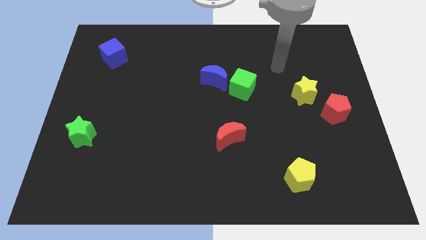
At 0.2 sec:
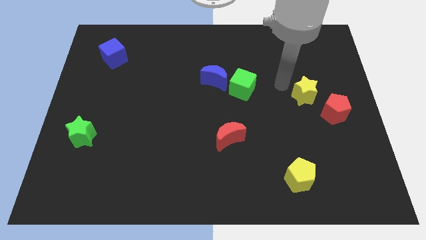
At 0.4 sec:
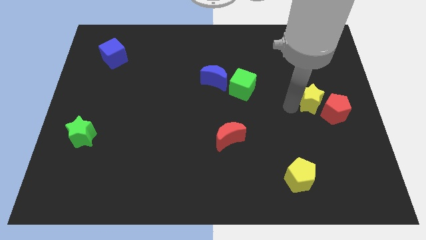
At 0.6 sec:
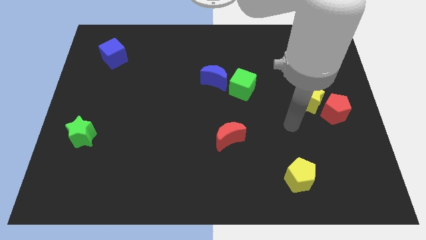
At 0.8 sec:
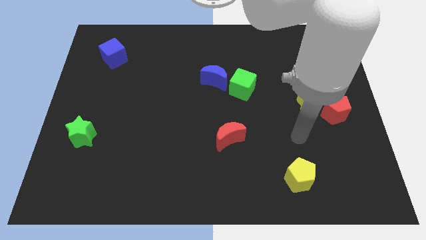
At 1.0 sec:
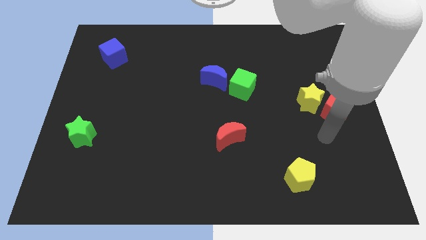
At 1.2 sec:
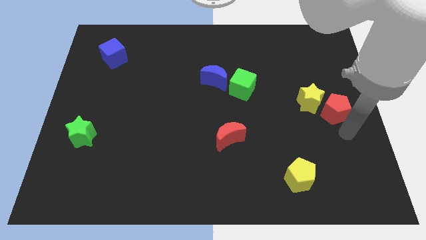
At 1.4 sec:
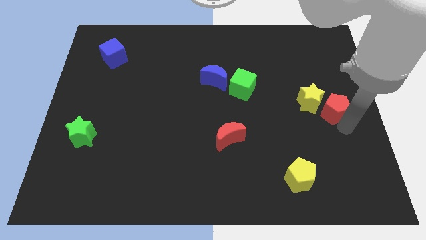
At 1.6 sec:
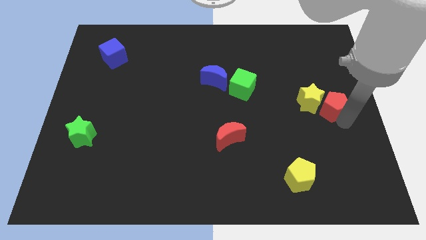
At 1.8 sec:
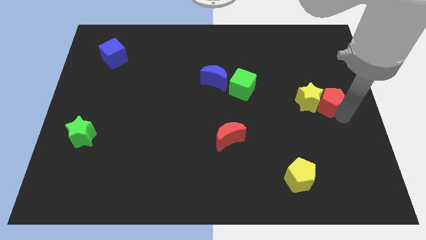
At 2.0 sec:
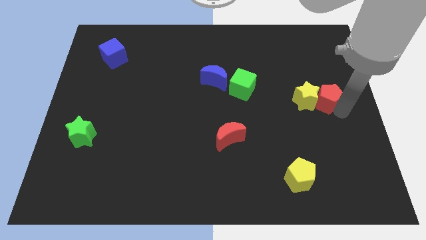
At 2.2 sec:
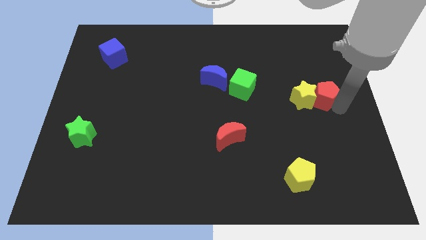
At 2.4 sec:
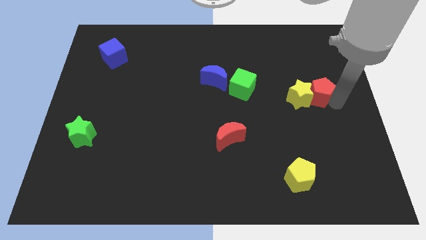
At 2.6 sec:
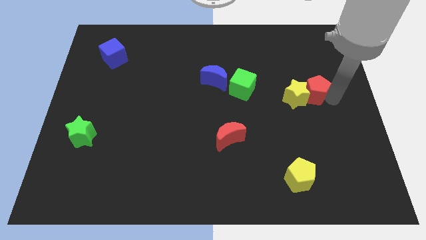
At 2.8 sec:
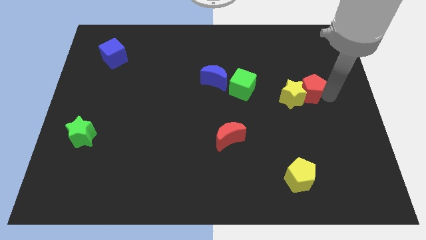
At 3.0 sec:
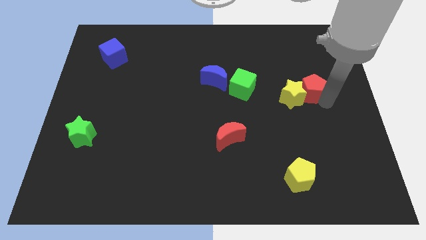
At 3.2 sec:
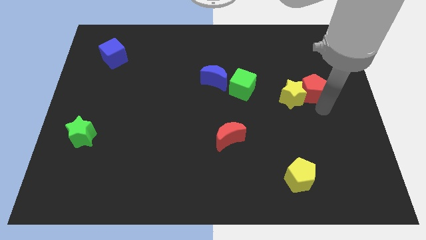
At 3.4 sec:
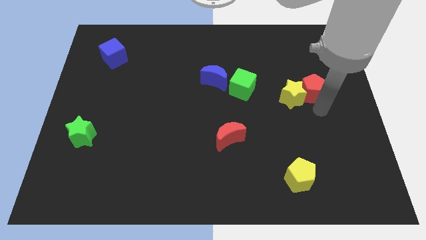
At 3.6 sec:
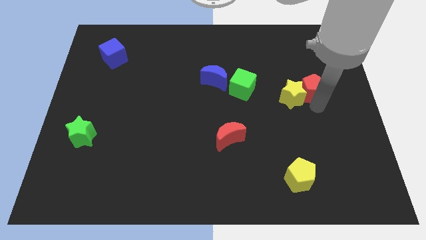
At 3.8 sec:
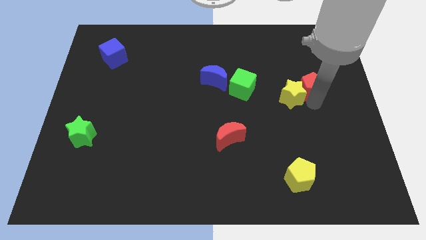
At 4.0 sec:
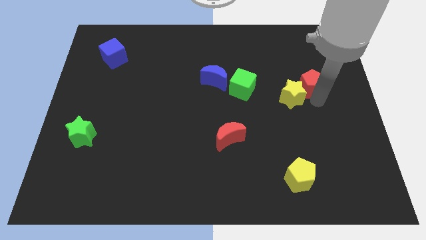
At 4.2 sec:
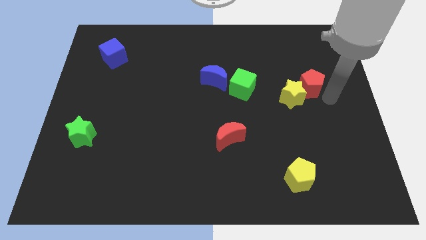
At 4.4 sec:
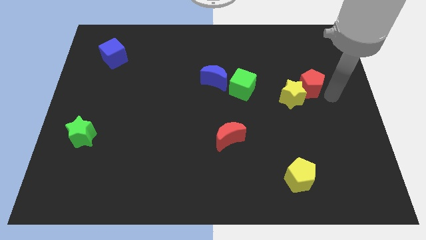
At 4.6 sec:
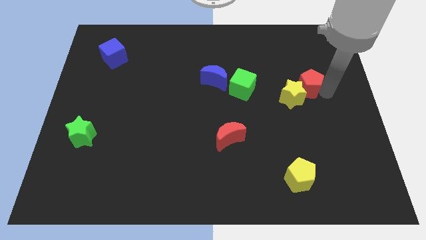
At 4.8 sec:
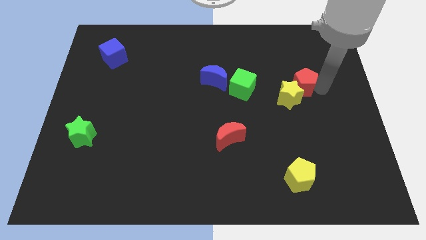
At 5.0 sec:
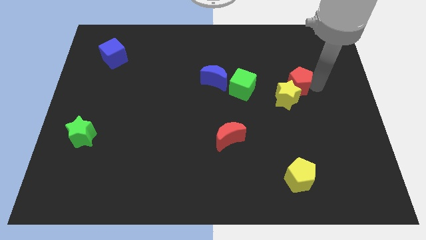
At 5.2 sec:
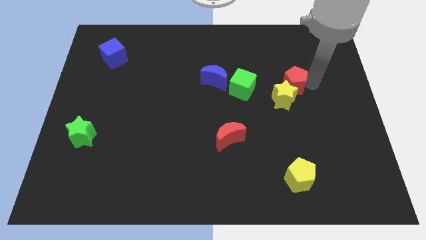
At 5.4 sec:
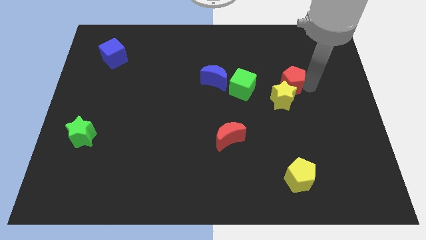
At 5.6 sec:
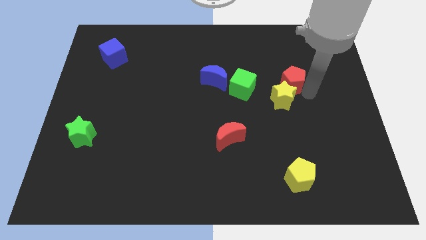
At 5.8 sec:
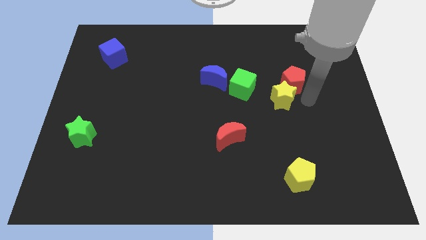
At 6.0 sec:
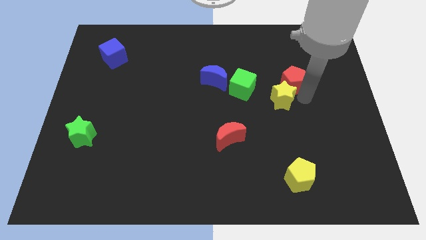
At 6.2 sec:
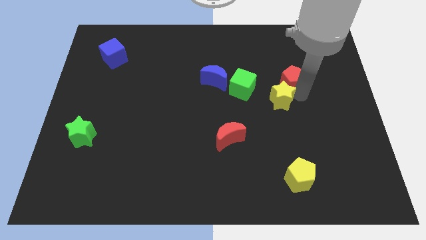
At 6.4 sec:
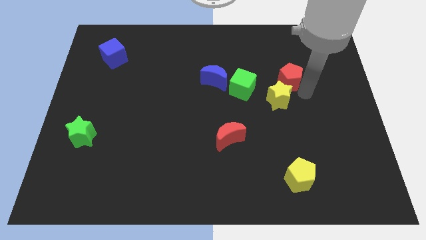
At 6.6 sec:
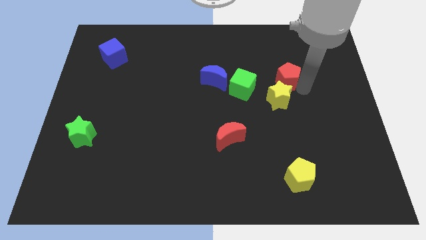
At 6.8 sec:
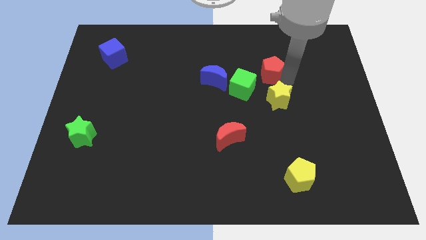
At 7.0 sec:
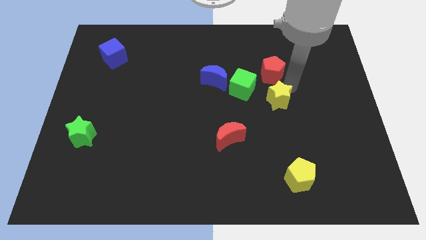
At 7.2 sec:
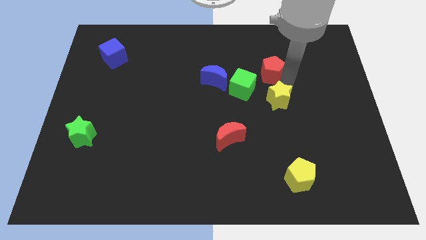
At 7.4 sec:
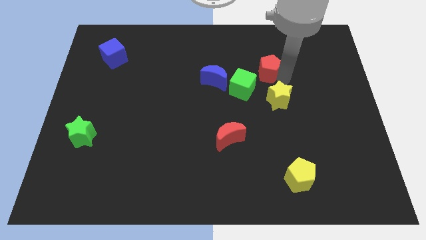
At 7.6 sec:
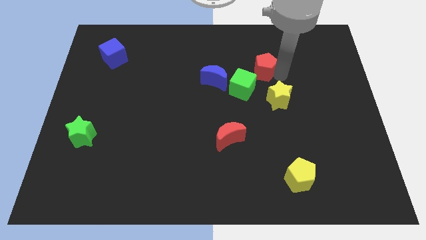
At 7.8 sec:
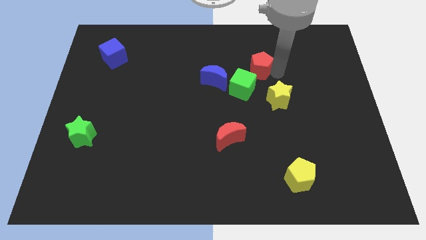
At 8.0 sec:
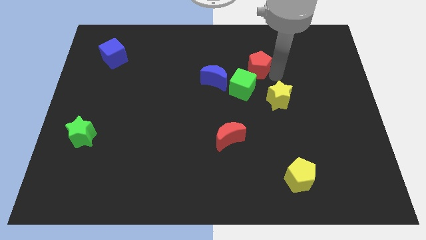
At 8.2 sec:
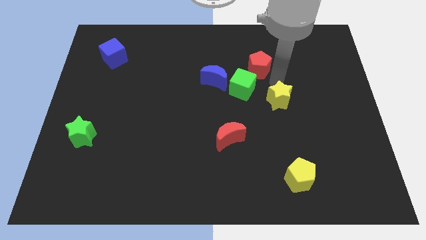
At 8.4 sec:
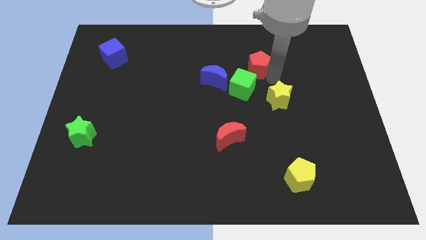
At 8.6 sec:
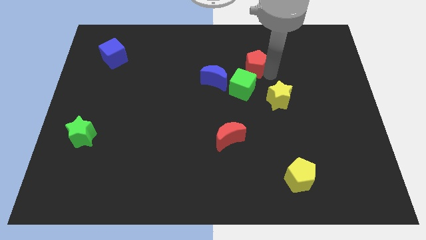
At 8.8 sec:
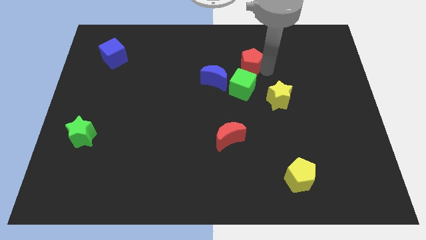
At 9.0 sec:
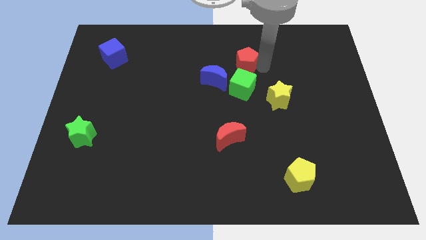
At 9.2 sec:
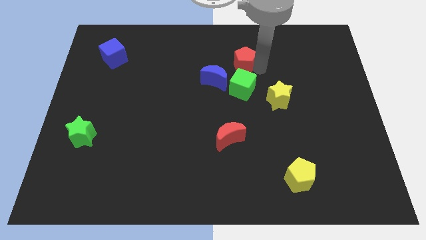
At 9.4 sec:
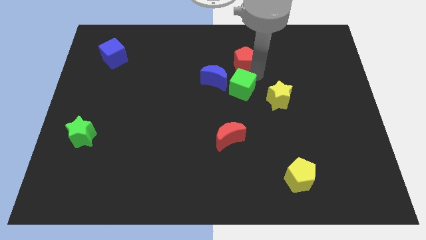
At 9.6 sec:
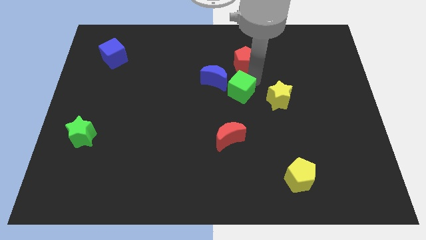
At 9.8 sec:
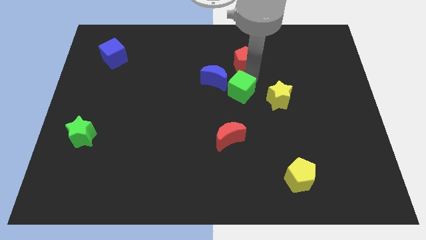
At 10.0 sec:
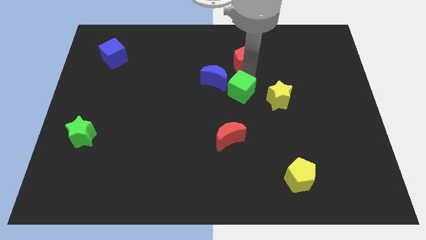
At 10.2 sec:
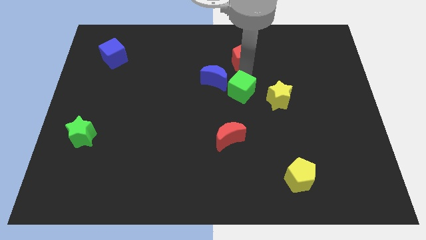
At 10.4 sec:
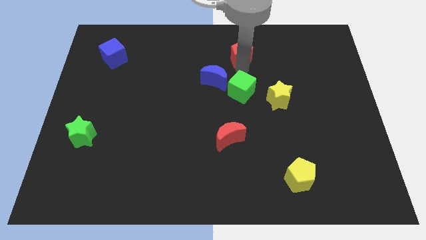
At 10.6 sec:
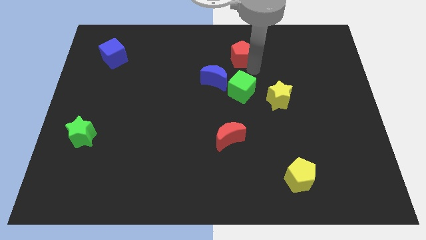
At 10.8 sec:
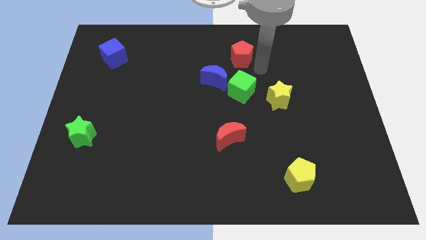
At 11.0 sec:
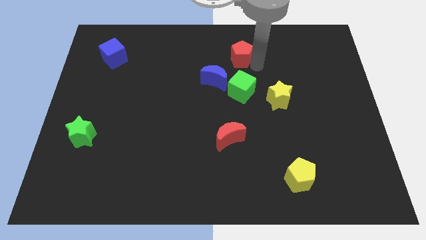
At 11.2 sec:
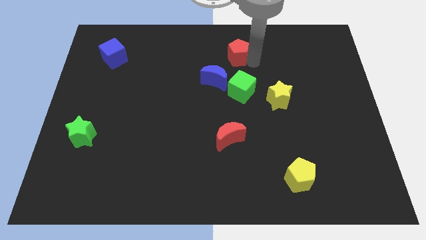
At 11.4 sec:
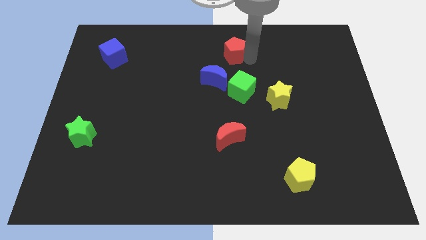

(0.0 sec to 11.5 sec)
put the red pentagon to the top side
